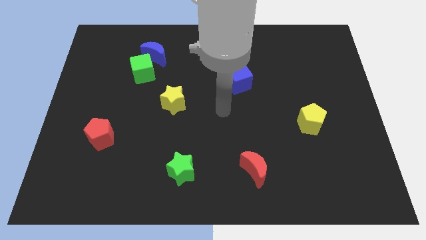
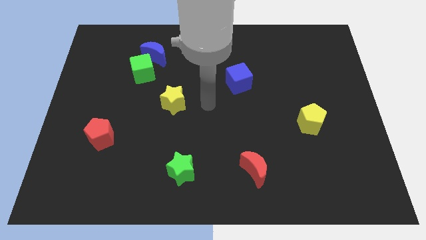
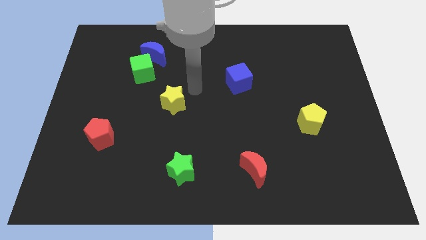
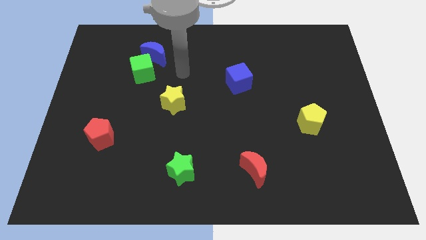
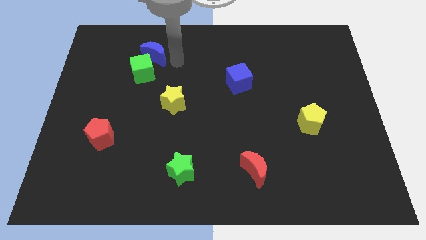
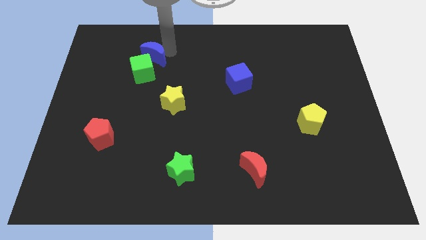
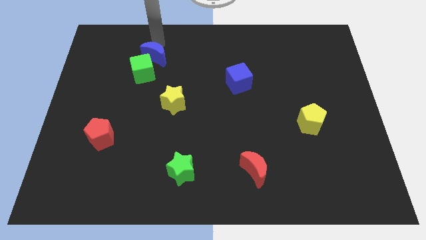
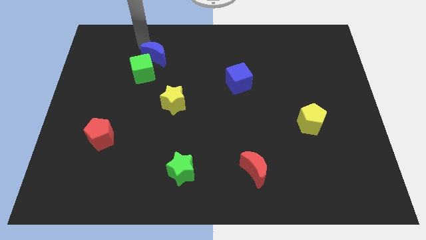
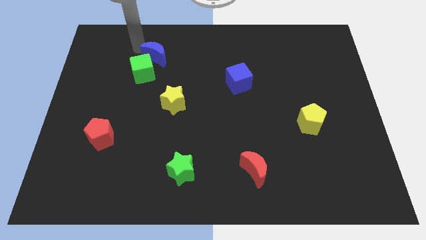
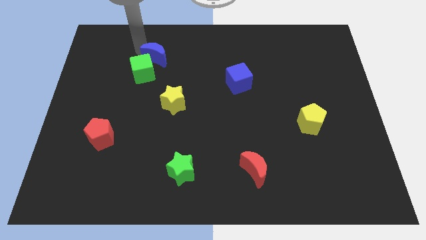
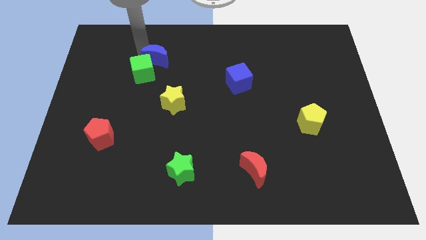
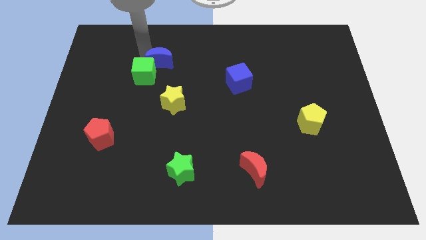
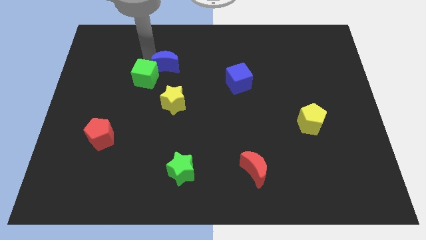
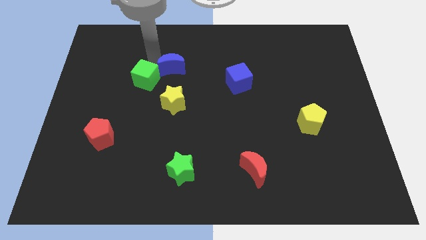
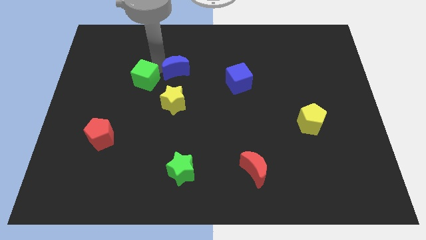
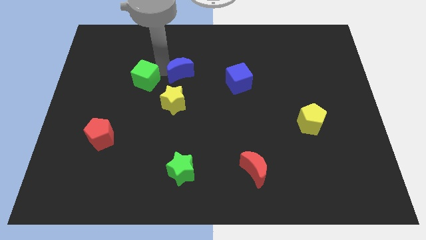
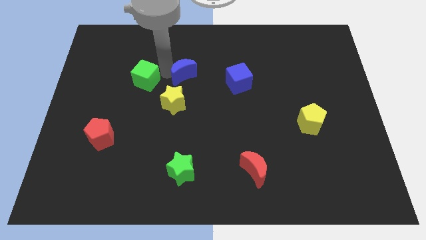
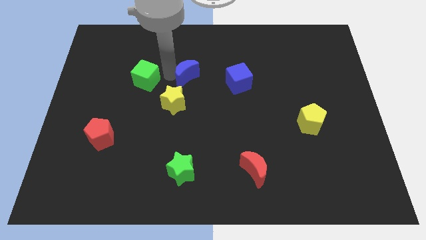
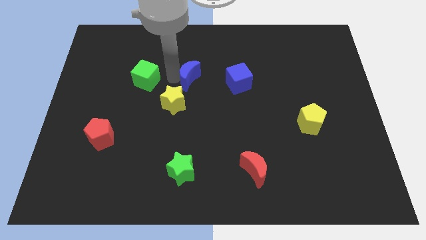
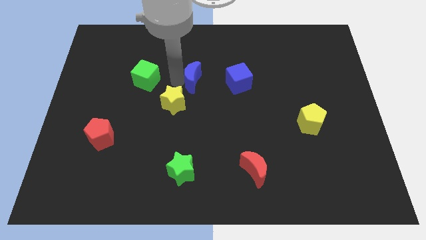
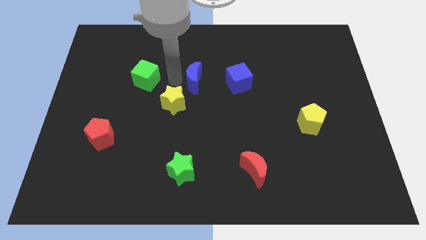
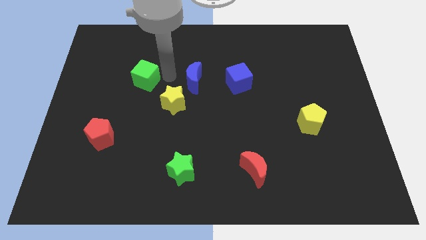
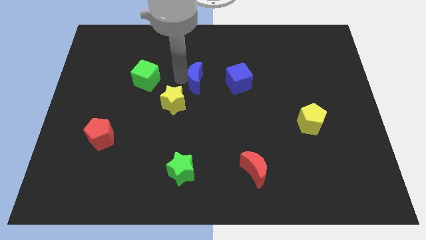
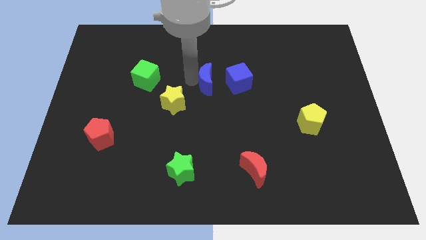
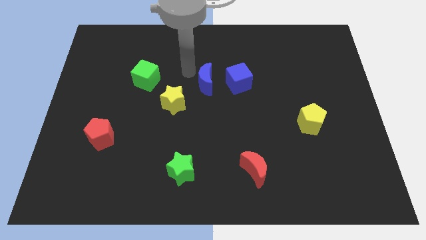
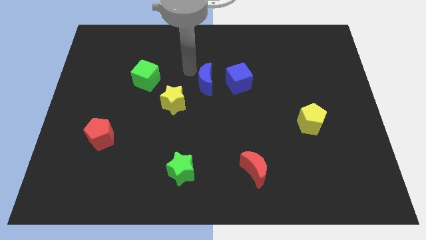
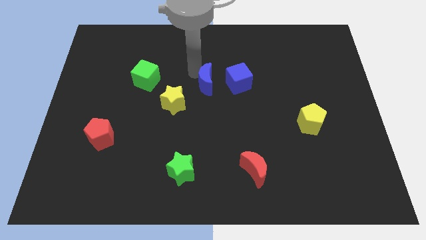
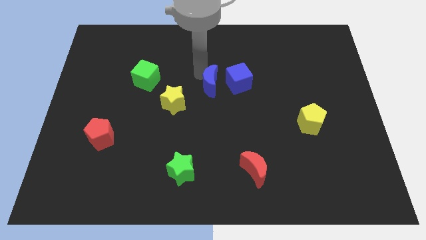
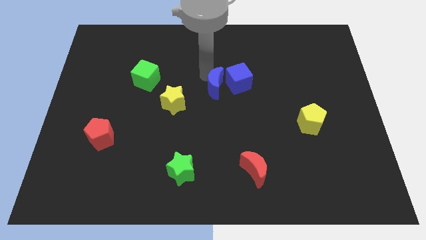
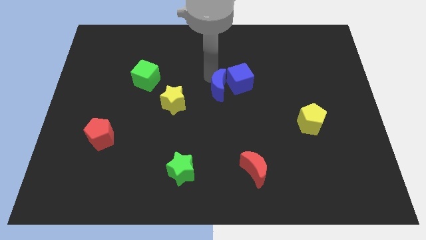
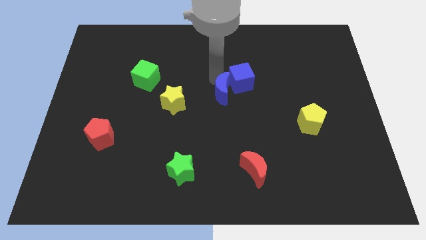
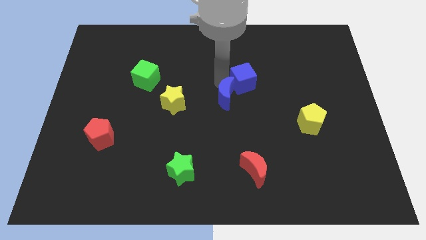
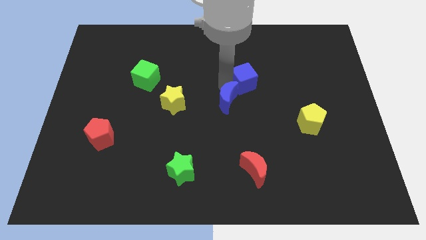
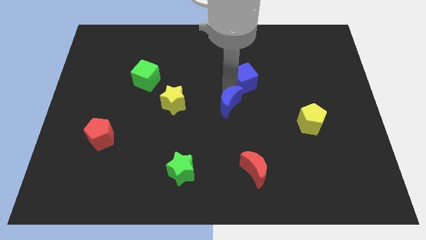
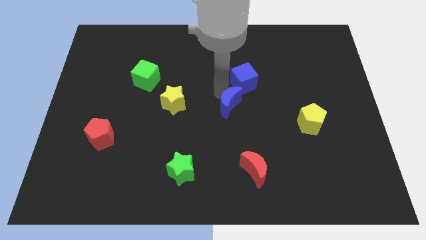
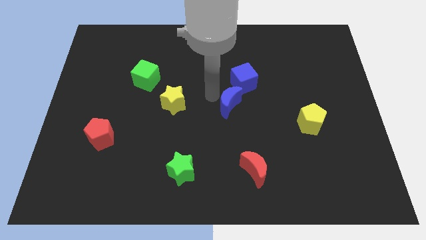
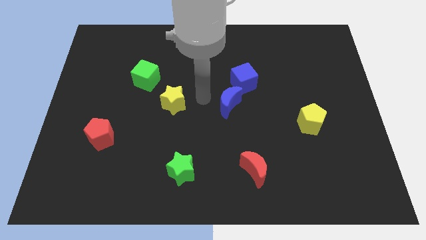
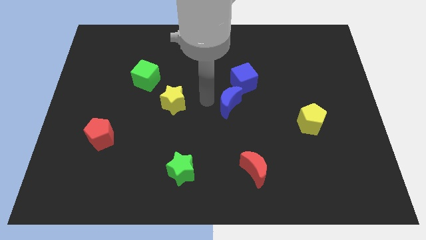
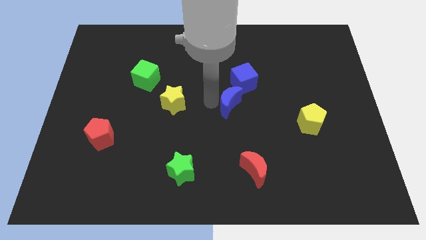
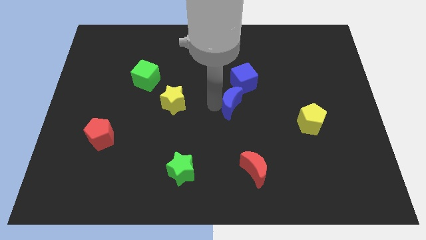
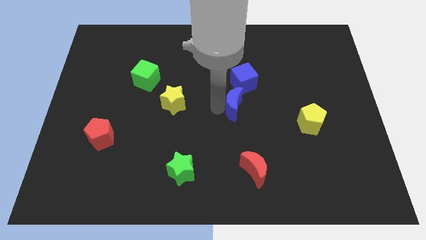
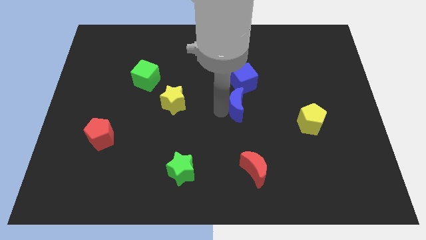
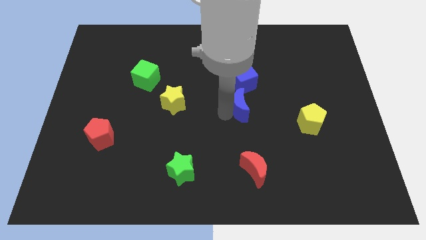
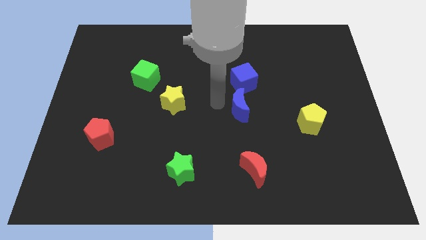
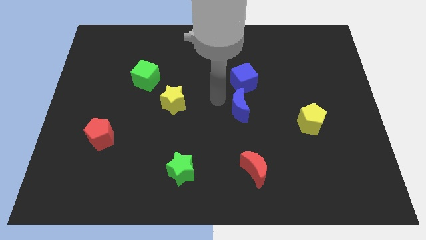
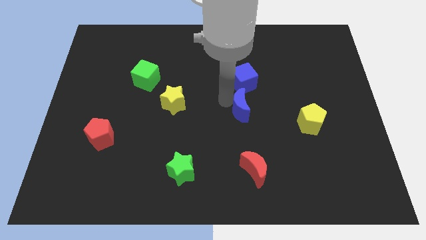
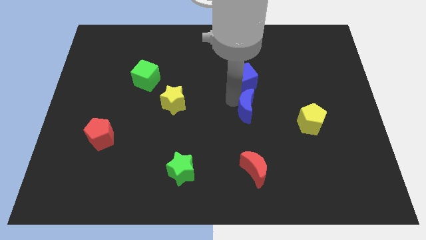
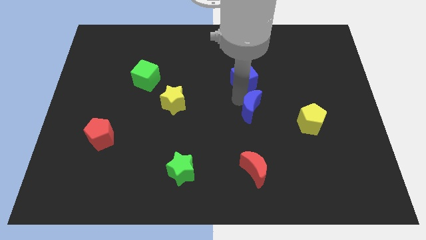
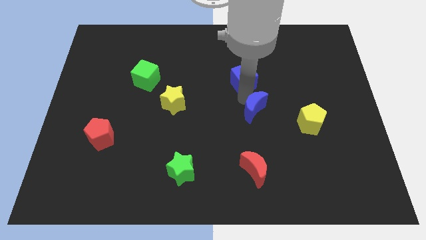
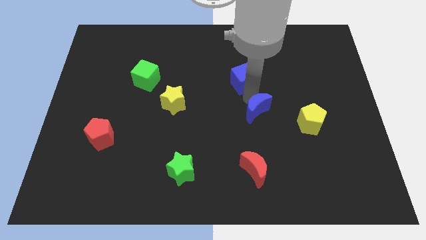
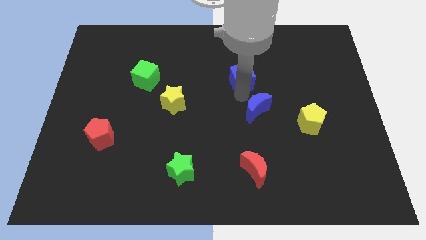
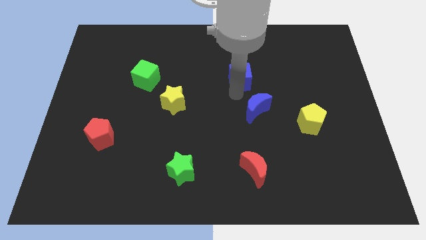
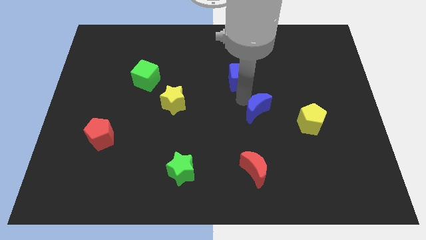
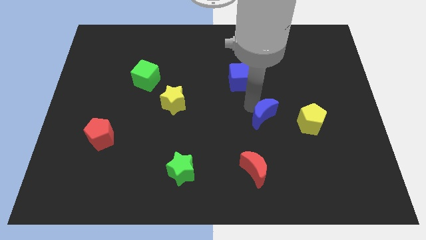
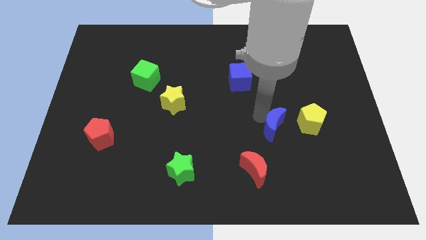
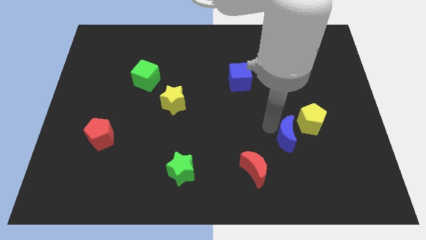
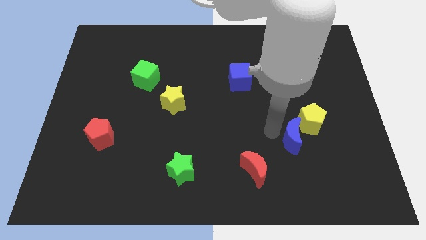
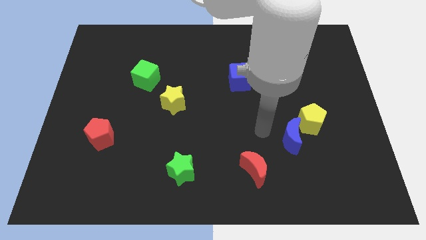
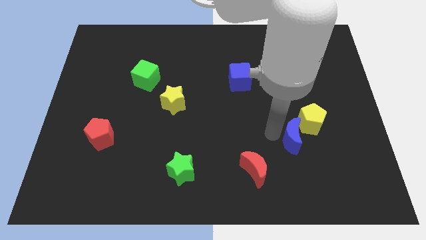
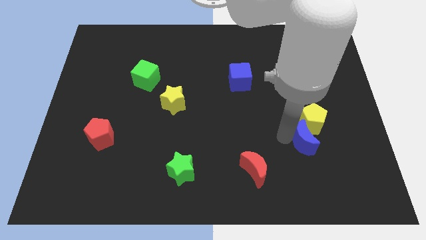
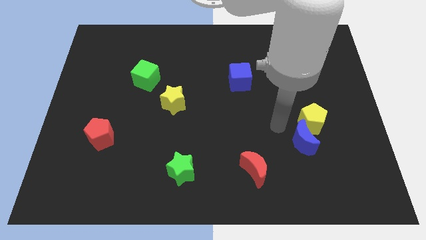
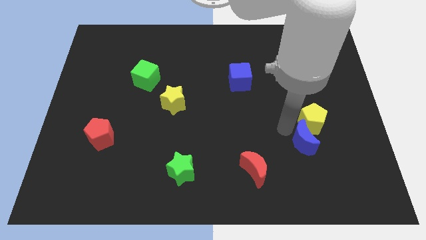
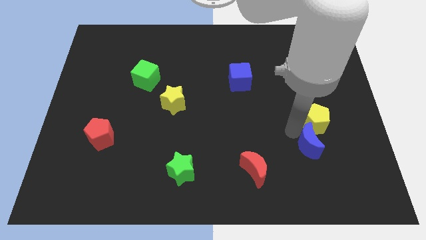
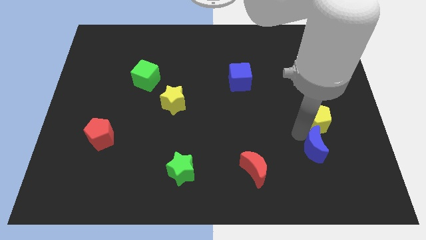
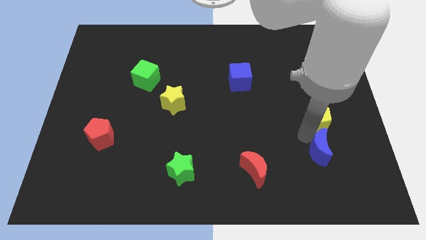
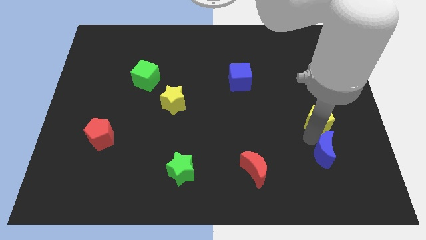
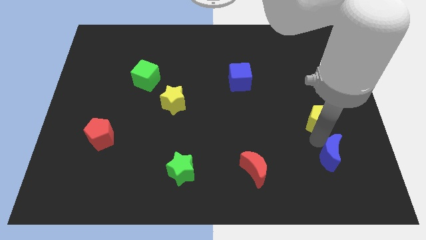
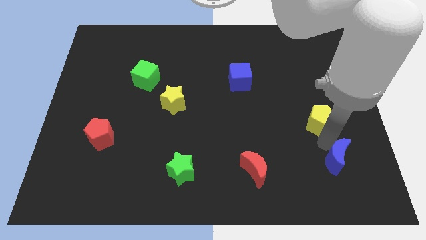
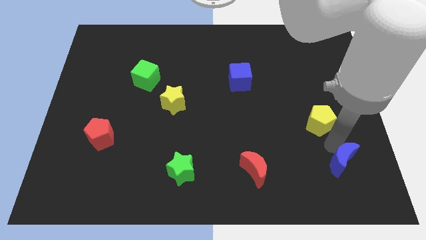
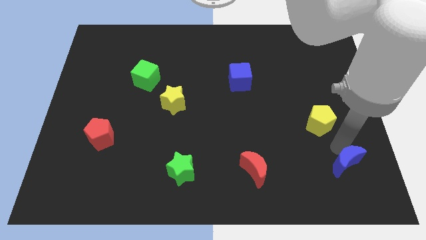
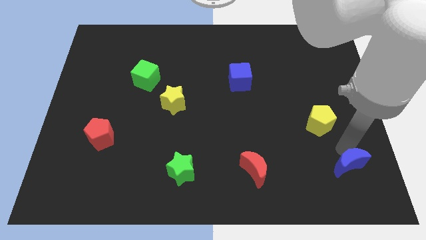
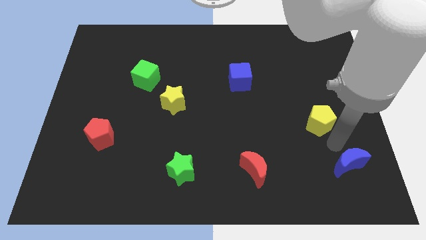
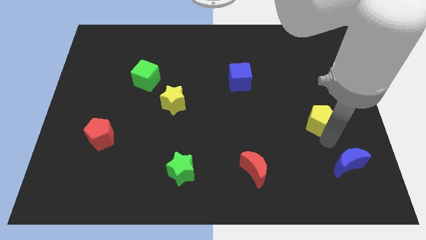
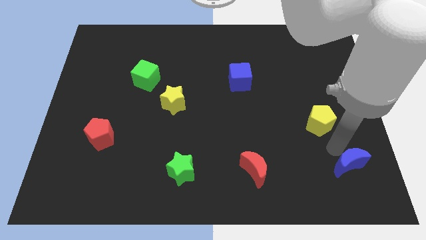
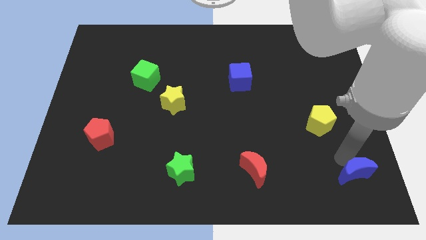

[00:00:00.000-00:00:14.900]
move the blue moon to the bottom right
